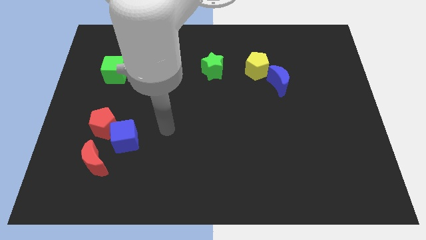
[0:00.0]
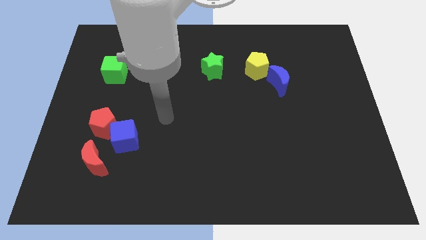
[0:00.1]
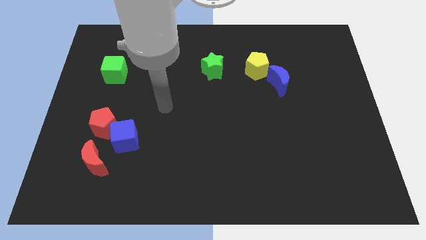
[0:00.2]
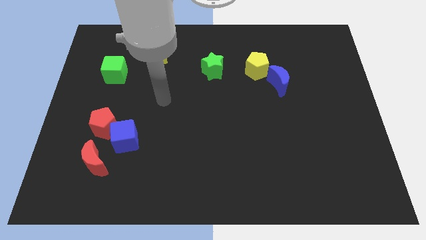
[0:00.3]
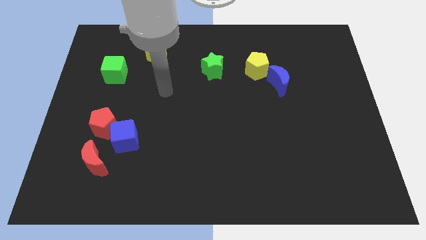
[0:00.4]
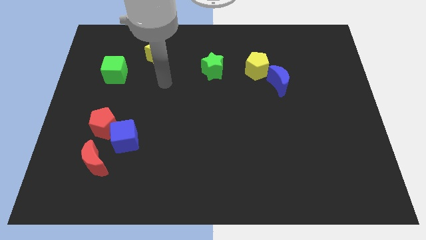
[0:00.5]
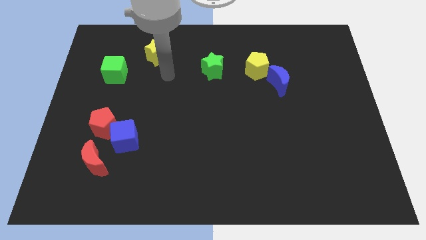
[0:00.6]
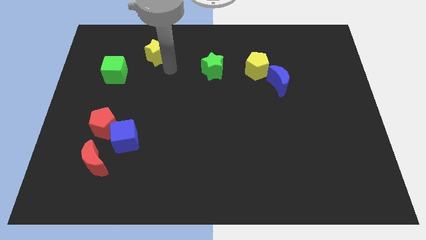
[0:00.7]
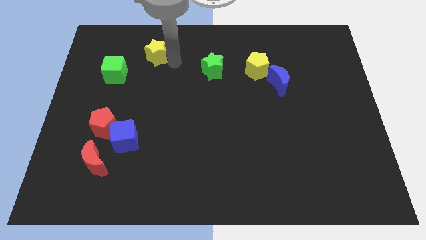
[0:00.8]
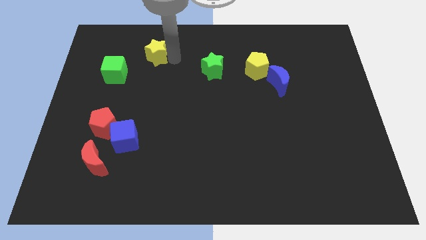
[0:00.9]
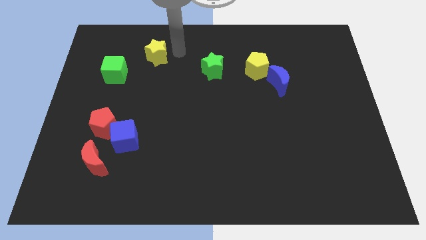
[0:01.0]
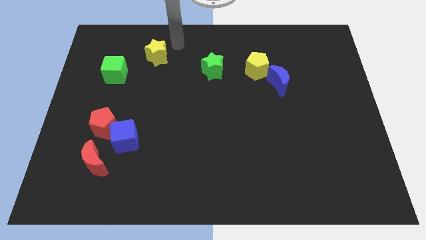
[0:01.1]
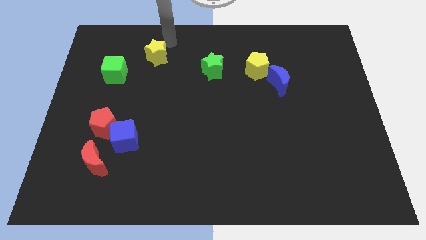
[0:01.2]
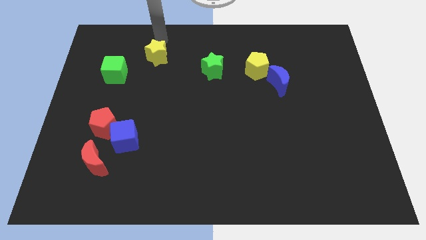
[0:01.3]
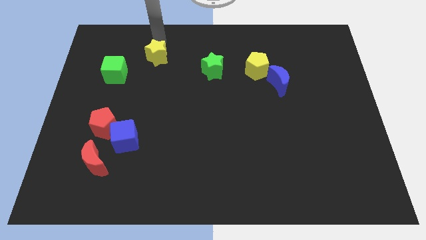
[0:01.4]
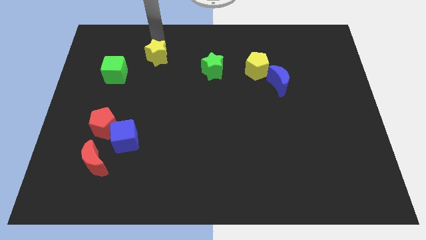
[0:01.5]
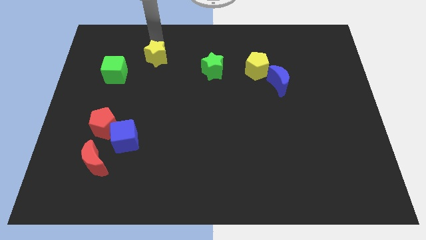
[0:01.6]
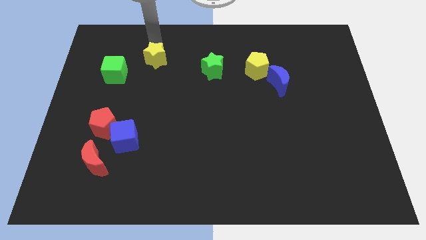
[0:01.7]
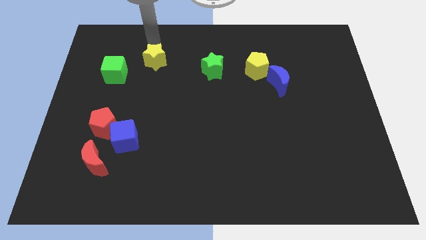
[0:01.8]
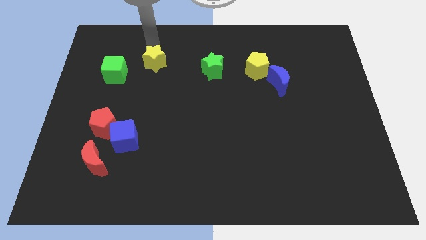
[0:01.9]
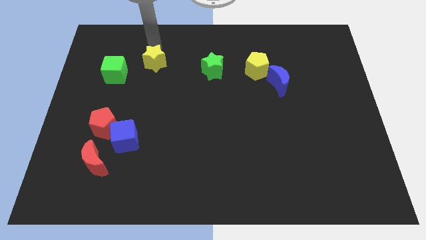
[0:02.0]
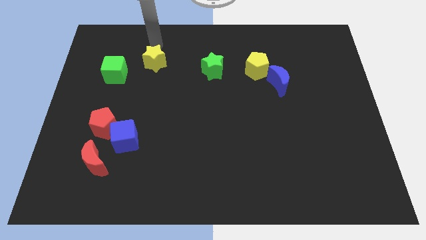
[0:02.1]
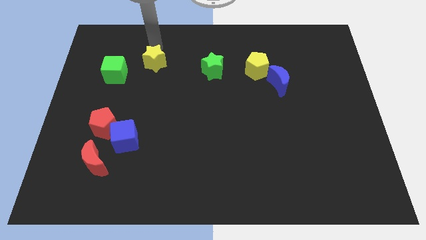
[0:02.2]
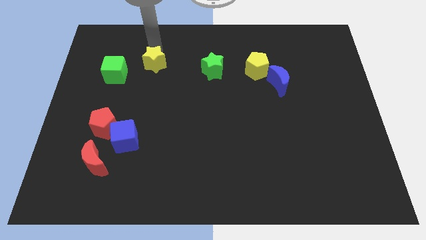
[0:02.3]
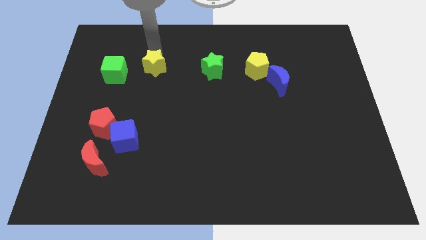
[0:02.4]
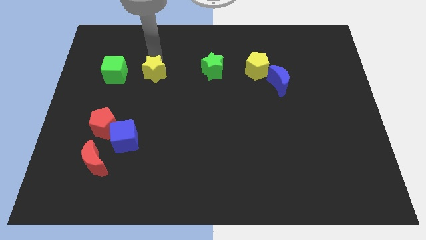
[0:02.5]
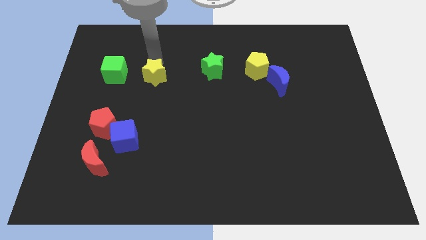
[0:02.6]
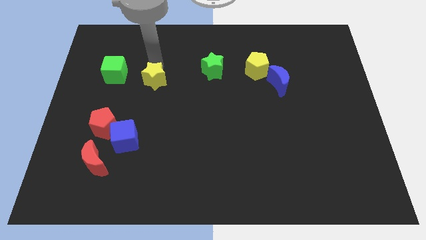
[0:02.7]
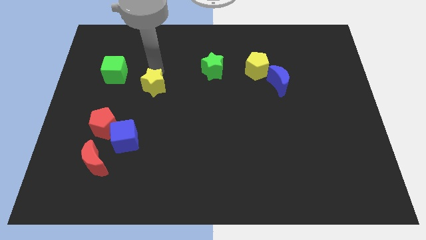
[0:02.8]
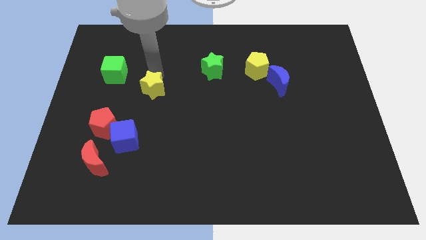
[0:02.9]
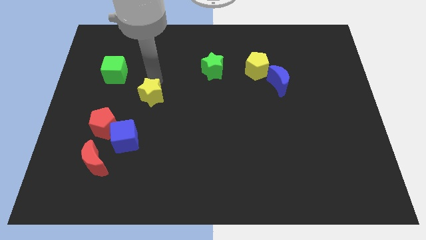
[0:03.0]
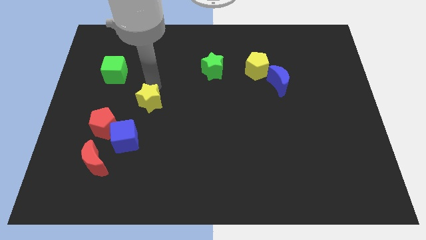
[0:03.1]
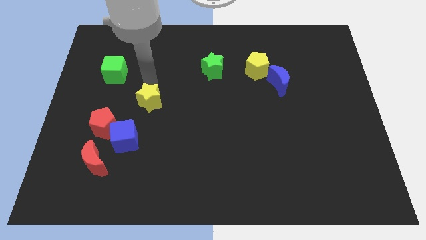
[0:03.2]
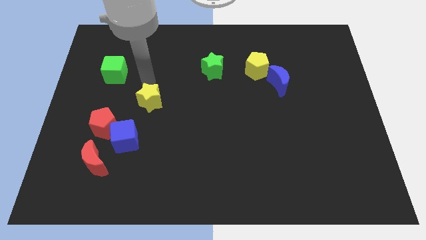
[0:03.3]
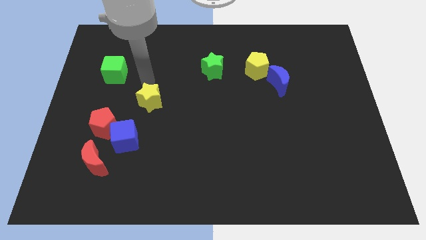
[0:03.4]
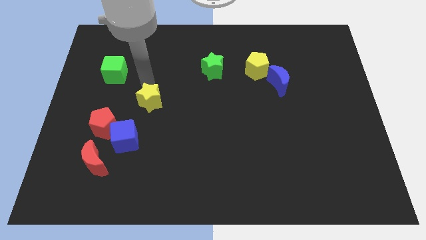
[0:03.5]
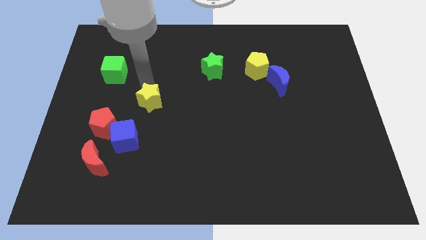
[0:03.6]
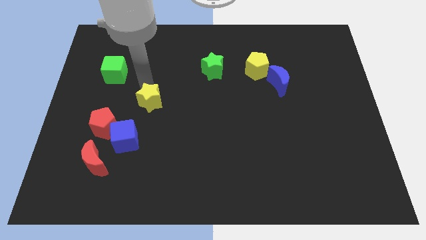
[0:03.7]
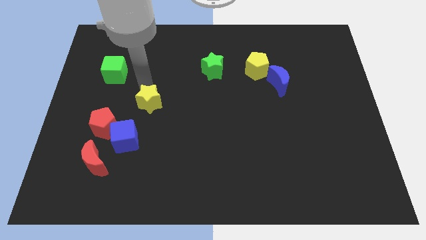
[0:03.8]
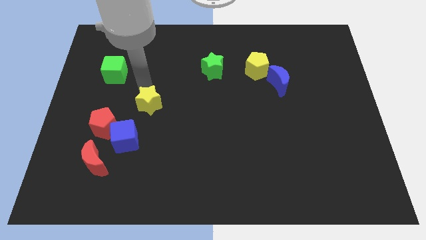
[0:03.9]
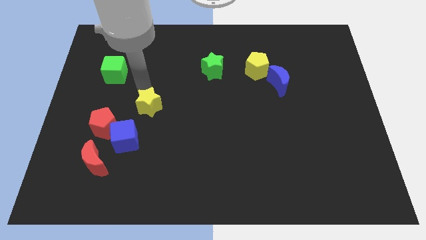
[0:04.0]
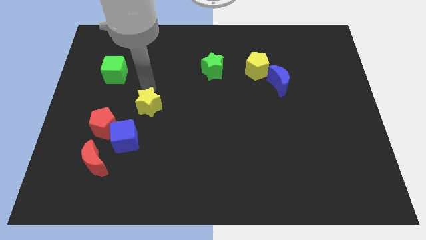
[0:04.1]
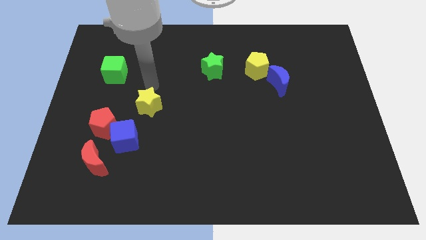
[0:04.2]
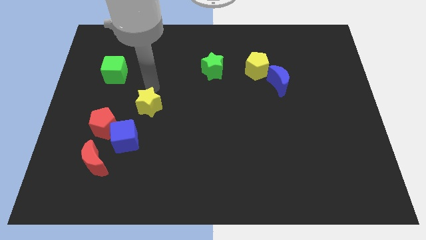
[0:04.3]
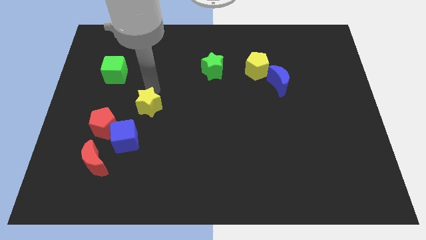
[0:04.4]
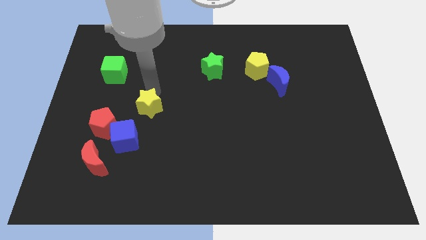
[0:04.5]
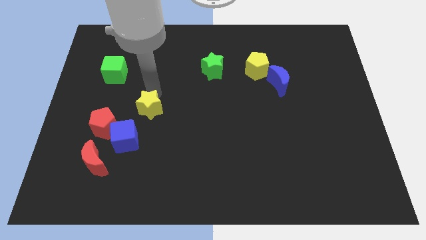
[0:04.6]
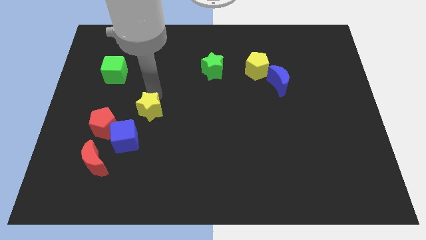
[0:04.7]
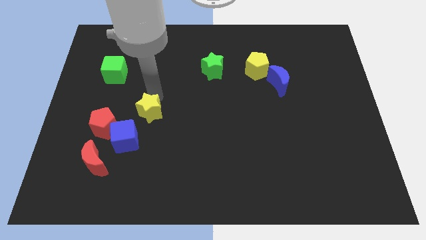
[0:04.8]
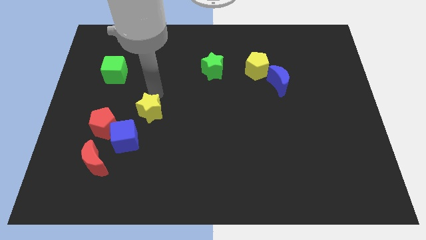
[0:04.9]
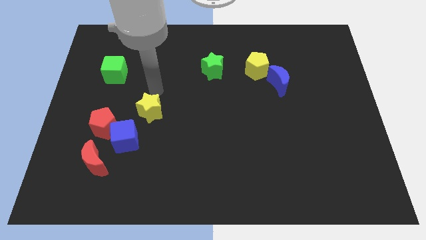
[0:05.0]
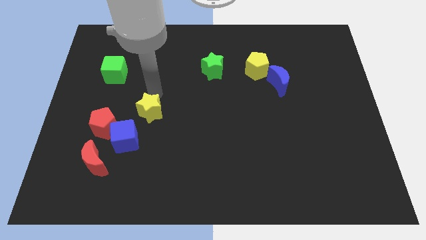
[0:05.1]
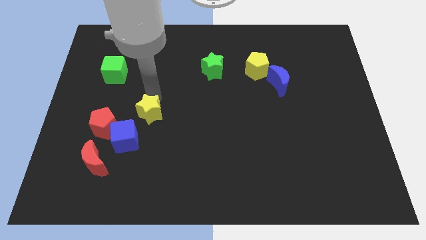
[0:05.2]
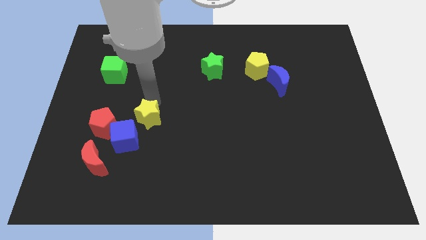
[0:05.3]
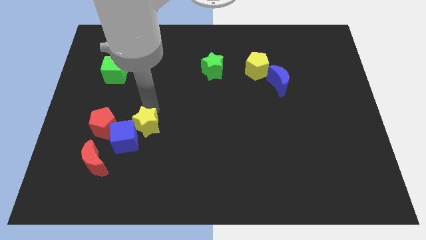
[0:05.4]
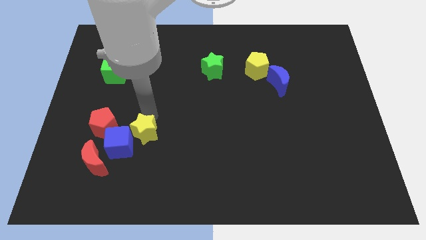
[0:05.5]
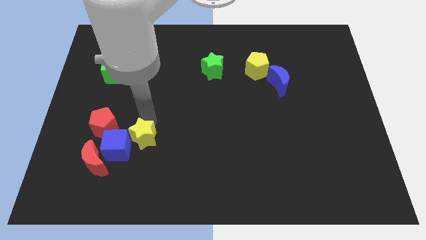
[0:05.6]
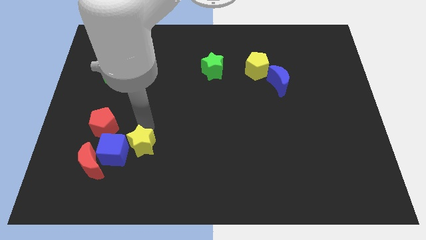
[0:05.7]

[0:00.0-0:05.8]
push the yellow star just right of the red moon

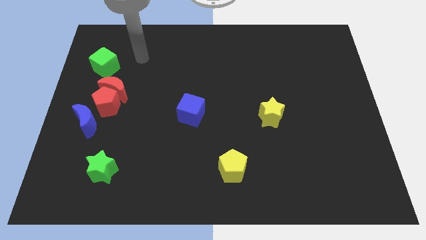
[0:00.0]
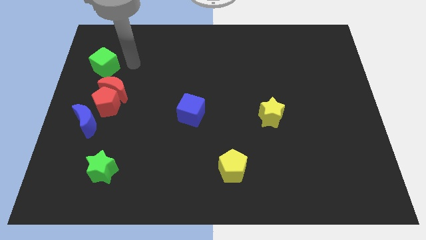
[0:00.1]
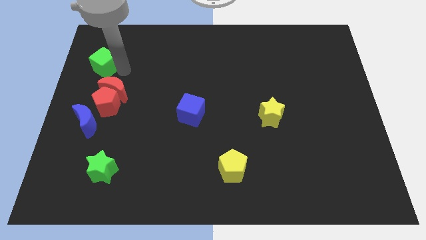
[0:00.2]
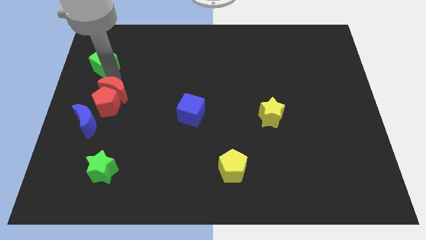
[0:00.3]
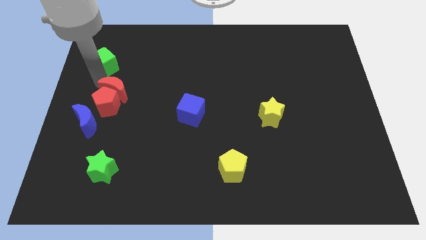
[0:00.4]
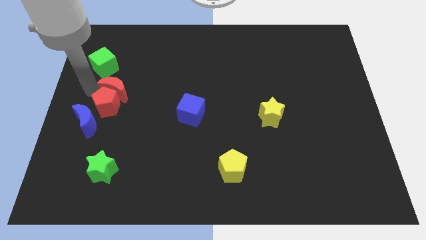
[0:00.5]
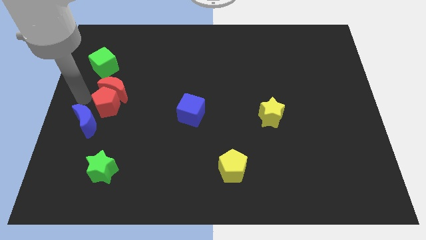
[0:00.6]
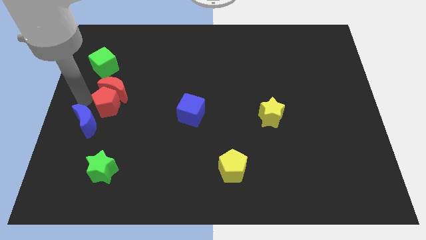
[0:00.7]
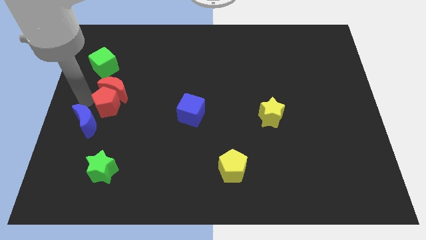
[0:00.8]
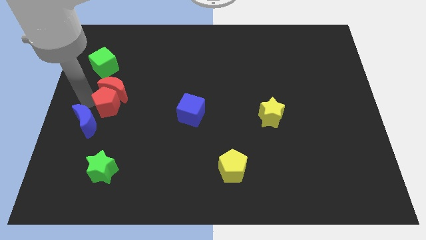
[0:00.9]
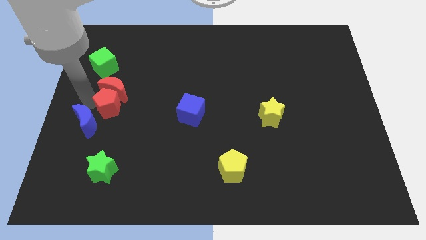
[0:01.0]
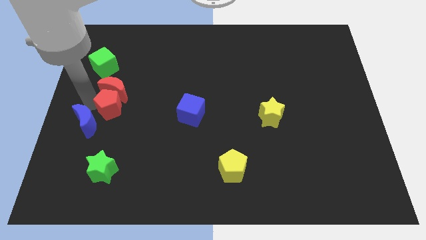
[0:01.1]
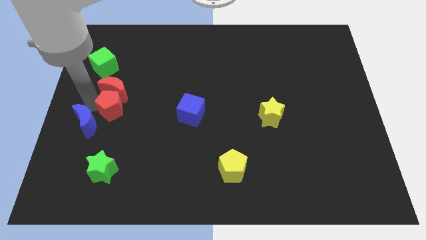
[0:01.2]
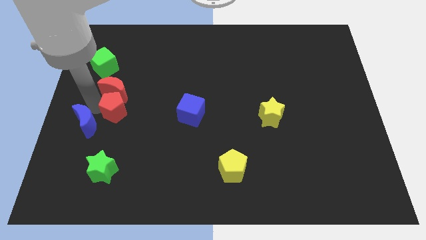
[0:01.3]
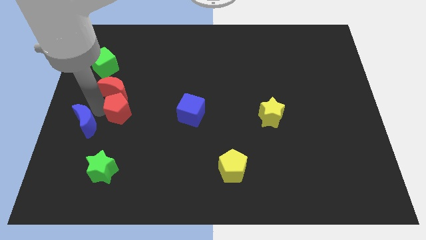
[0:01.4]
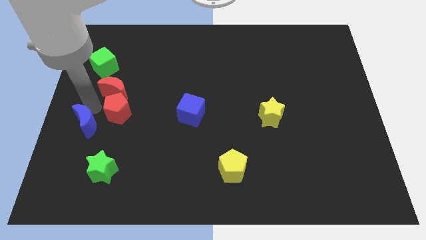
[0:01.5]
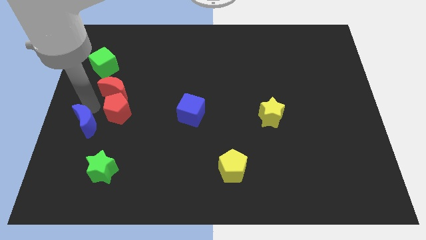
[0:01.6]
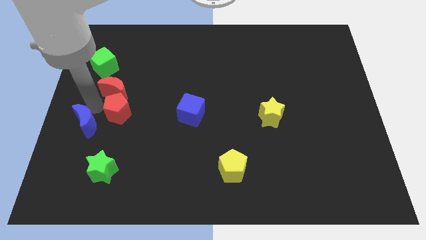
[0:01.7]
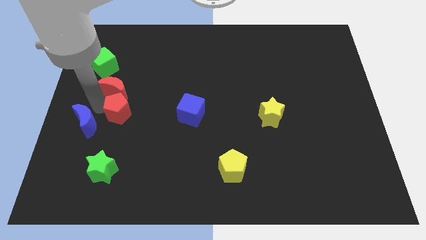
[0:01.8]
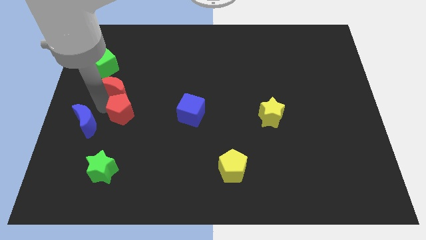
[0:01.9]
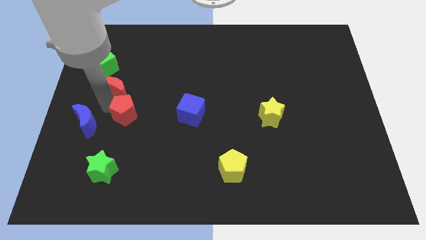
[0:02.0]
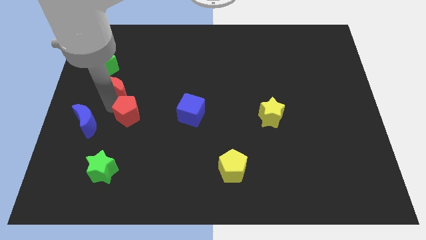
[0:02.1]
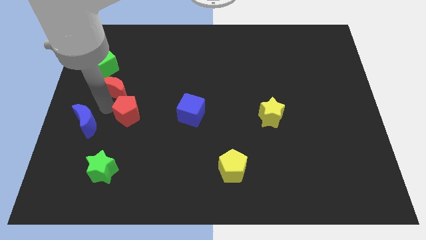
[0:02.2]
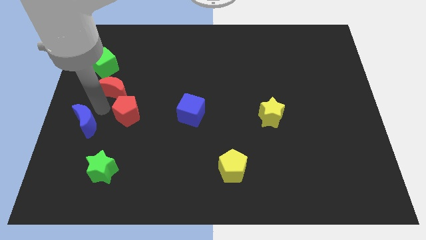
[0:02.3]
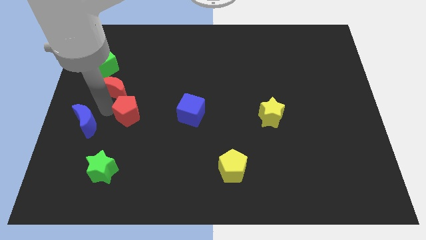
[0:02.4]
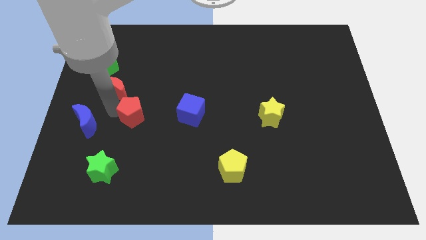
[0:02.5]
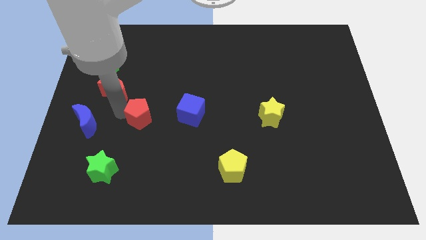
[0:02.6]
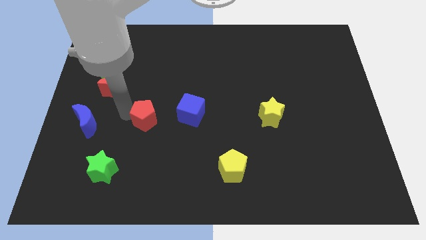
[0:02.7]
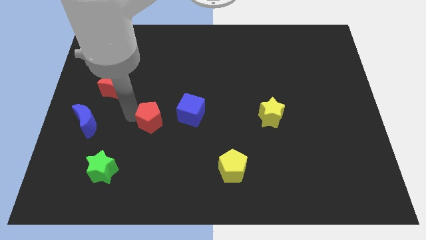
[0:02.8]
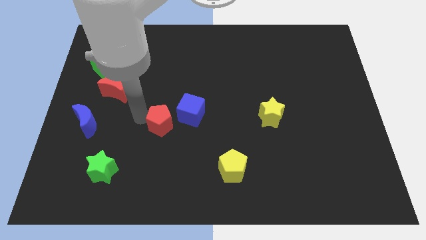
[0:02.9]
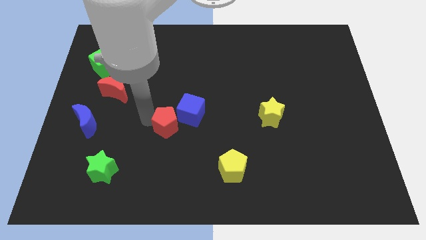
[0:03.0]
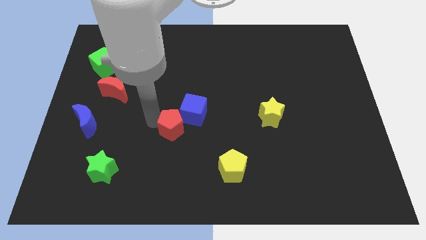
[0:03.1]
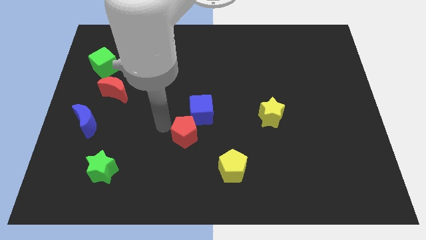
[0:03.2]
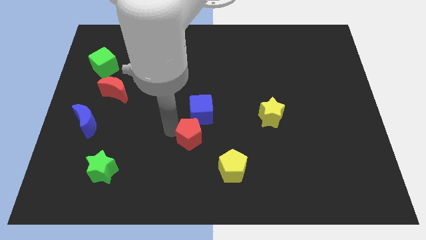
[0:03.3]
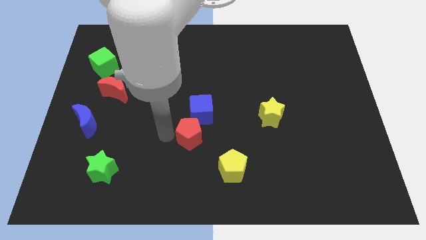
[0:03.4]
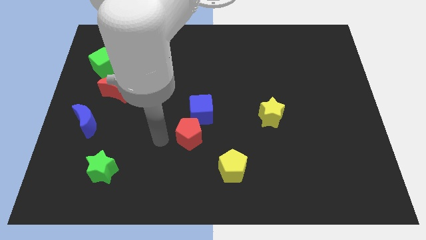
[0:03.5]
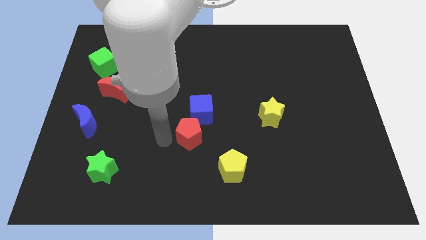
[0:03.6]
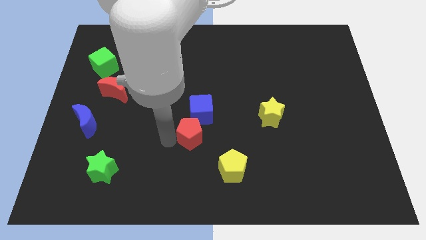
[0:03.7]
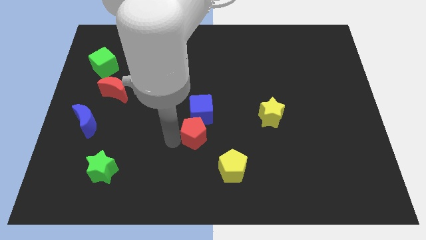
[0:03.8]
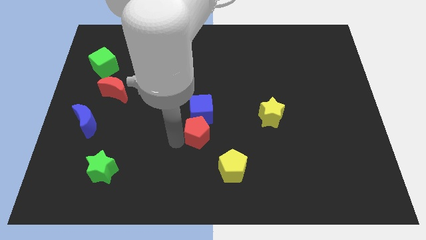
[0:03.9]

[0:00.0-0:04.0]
slide the red pentagon diagonally down and to the right of the blue cube
